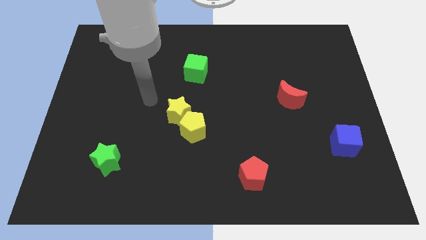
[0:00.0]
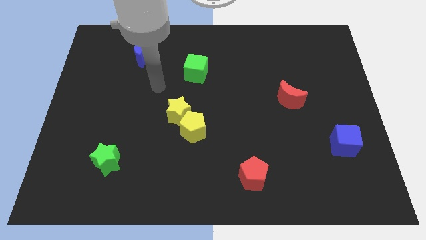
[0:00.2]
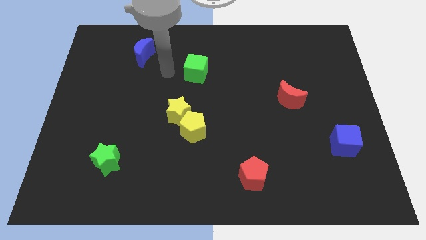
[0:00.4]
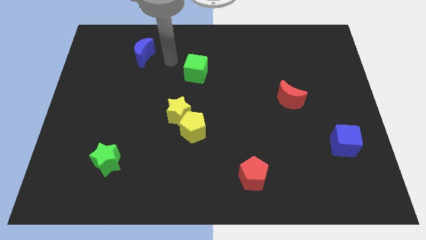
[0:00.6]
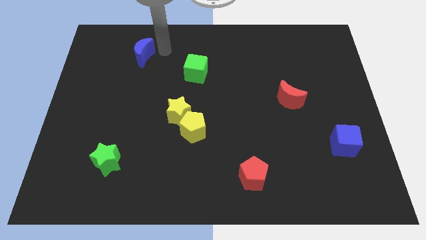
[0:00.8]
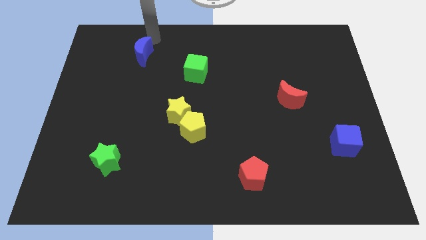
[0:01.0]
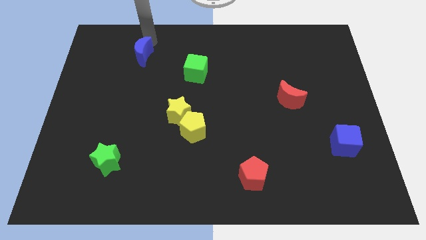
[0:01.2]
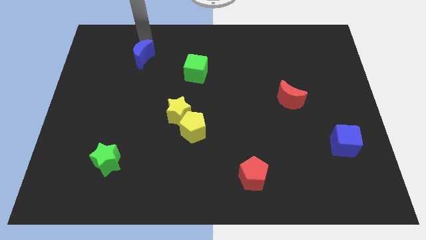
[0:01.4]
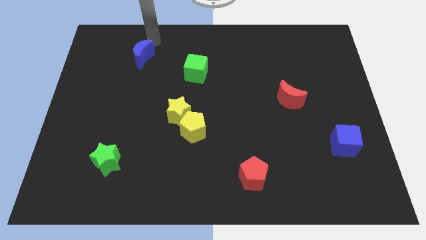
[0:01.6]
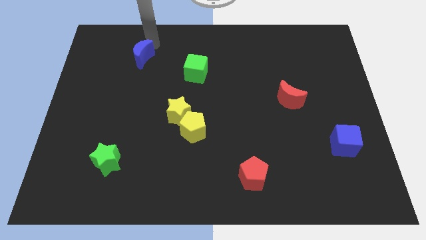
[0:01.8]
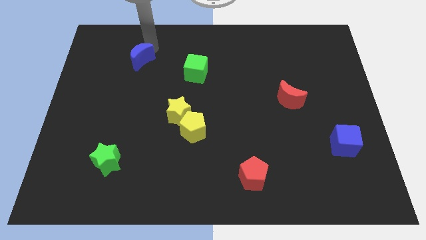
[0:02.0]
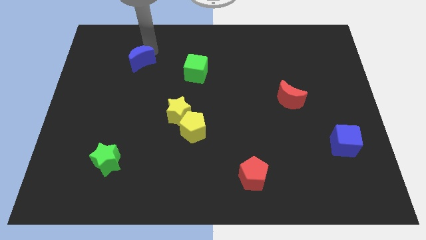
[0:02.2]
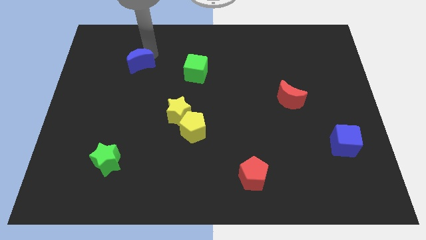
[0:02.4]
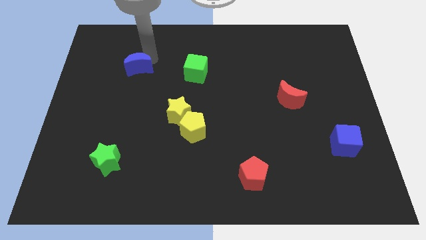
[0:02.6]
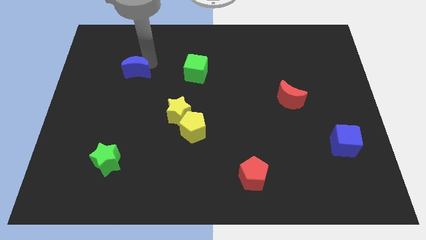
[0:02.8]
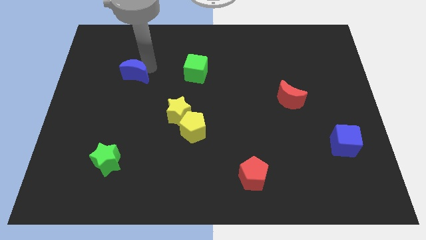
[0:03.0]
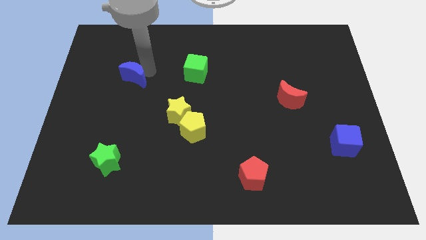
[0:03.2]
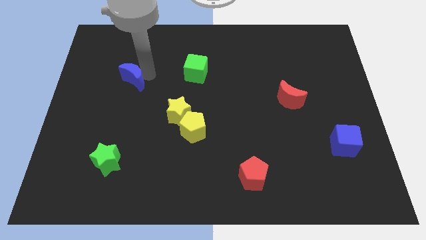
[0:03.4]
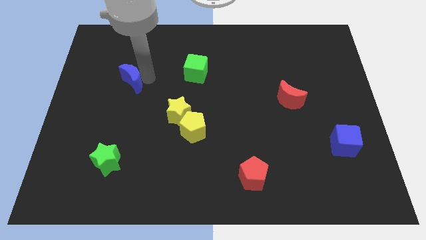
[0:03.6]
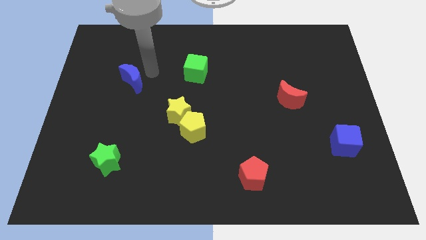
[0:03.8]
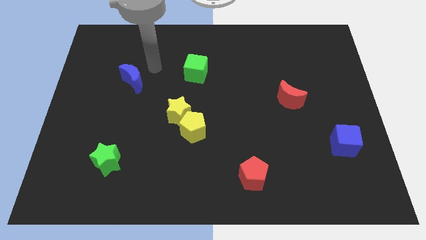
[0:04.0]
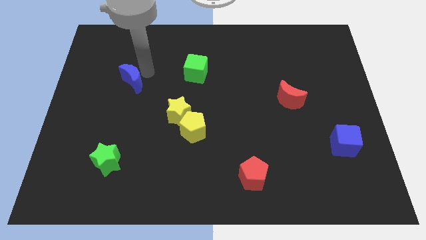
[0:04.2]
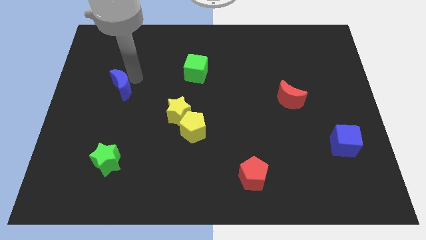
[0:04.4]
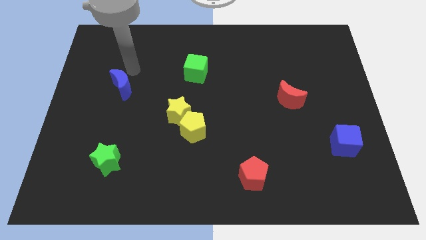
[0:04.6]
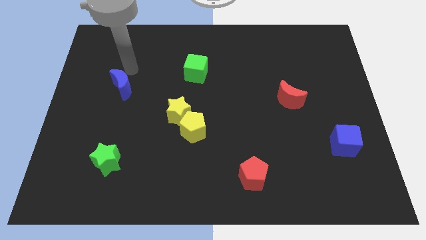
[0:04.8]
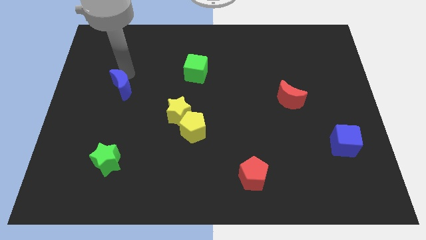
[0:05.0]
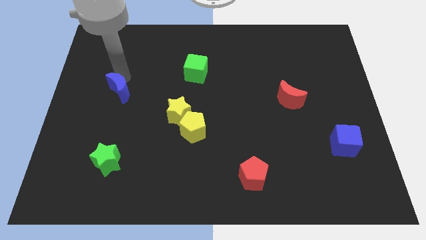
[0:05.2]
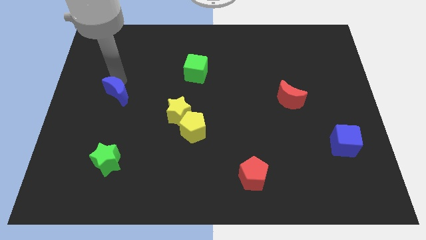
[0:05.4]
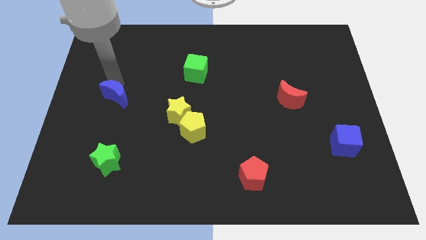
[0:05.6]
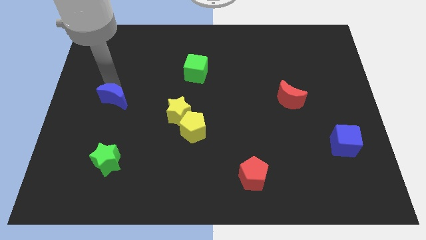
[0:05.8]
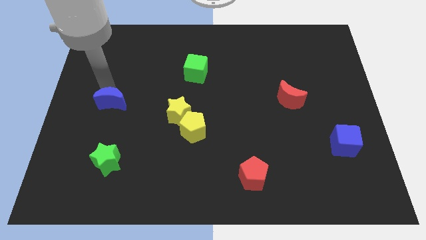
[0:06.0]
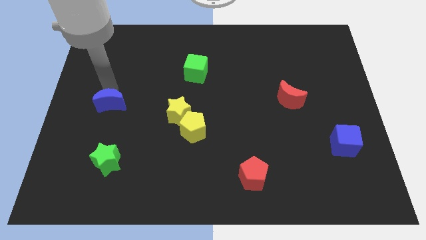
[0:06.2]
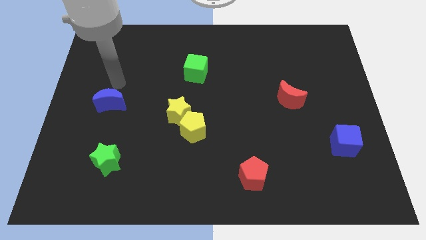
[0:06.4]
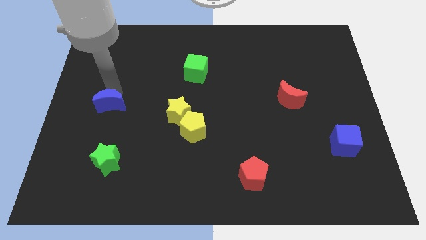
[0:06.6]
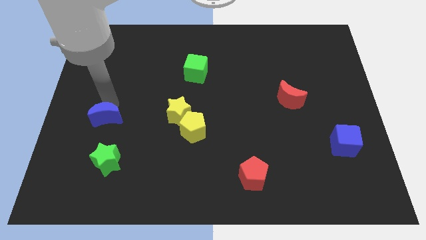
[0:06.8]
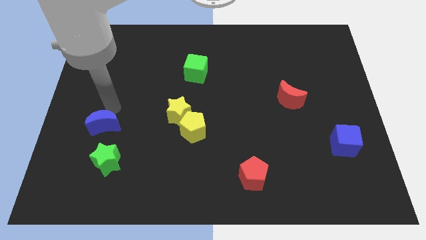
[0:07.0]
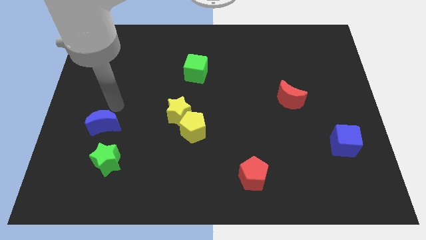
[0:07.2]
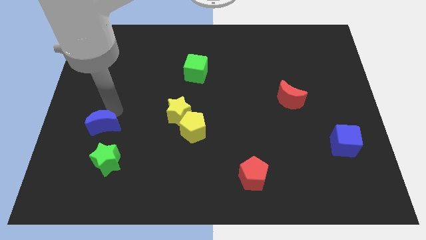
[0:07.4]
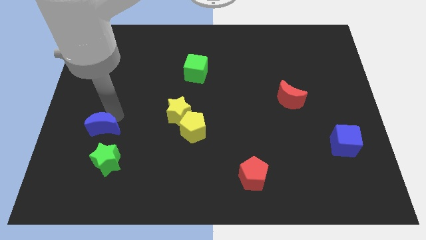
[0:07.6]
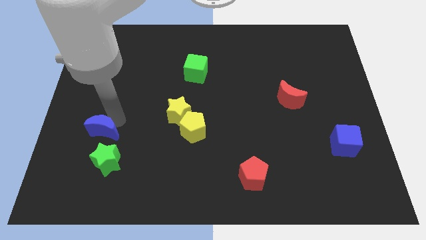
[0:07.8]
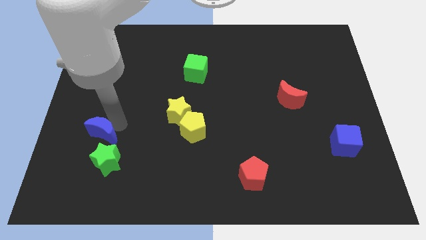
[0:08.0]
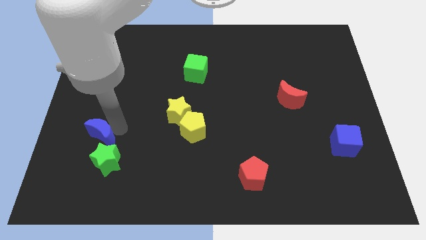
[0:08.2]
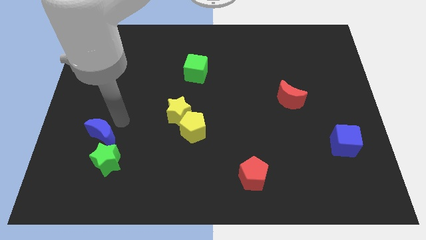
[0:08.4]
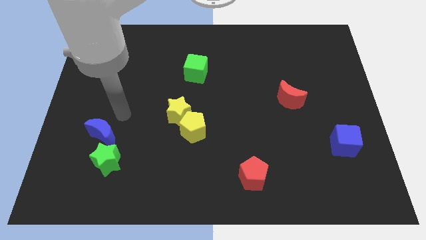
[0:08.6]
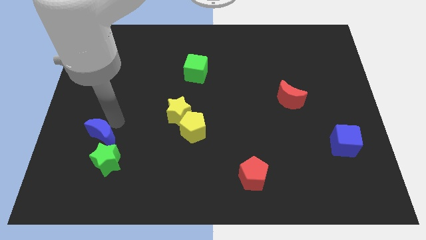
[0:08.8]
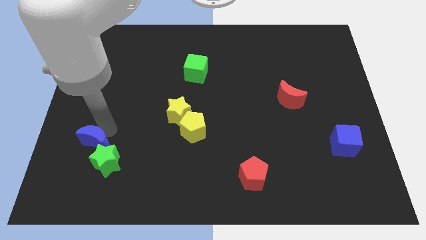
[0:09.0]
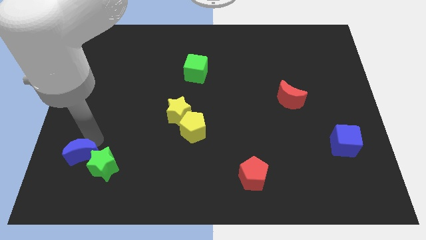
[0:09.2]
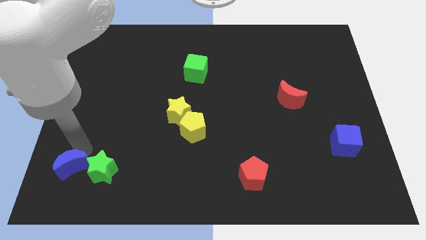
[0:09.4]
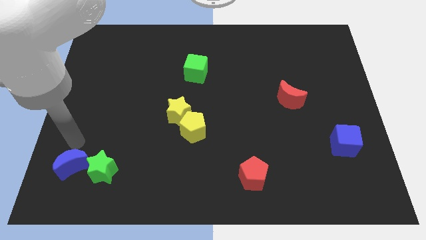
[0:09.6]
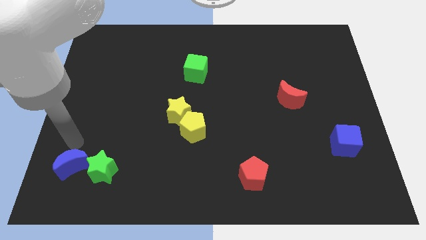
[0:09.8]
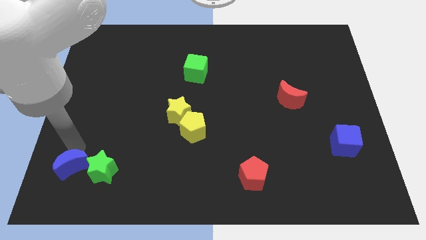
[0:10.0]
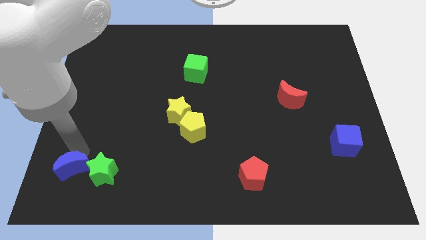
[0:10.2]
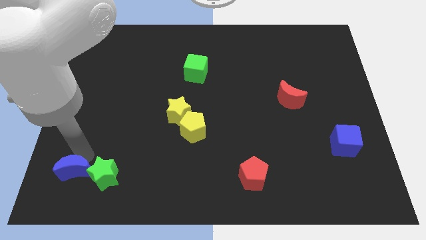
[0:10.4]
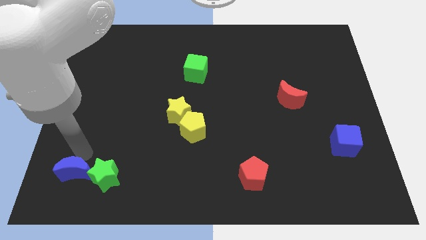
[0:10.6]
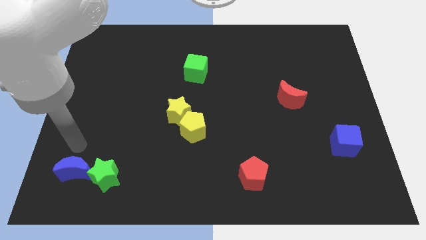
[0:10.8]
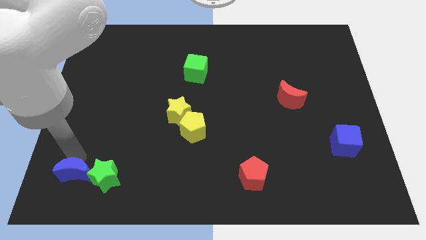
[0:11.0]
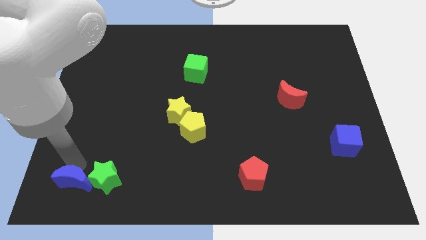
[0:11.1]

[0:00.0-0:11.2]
put the blue moon to the bottom left side of the green star

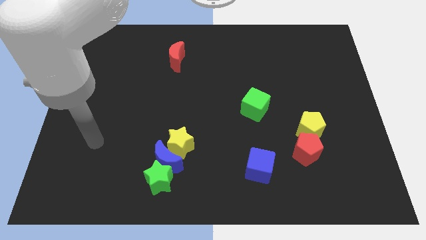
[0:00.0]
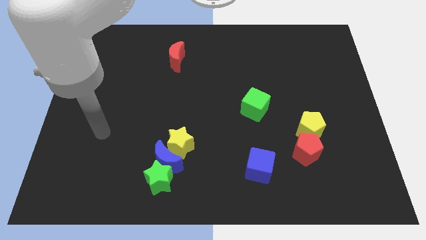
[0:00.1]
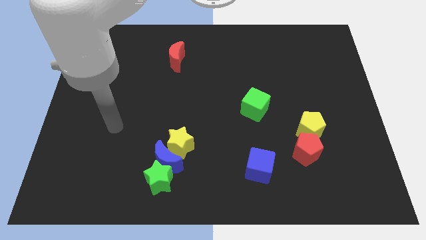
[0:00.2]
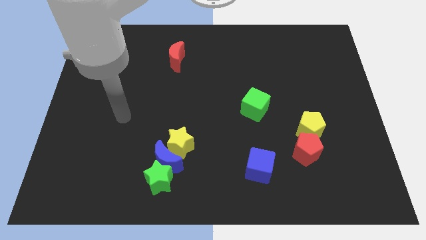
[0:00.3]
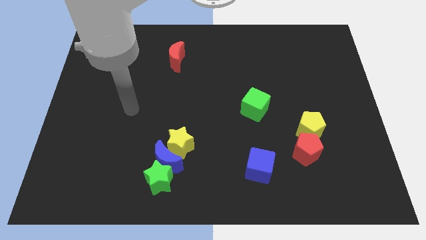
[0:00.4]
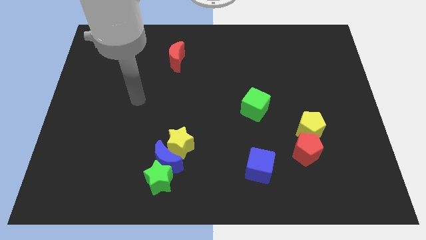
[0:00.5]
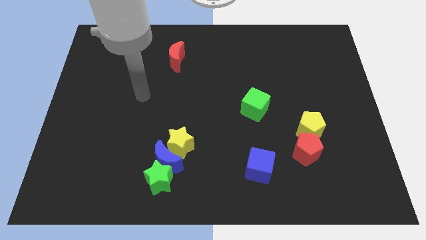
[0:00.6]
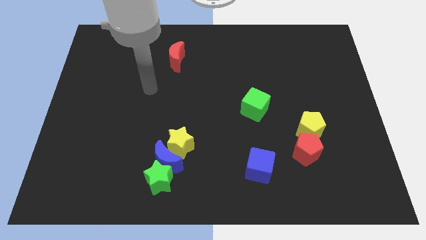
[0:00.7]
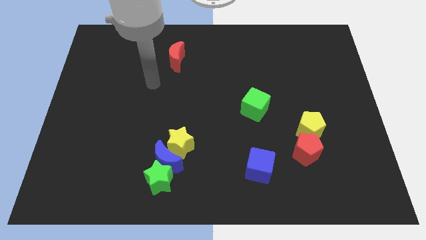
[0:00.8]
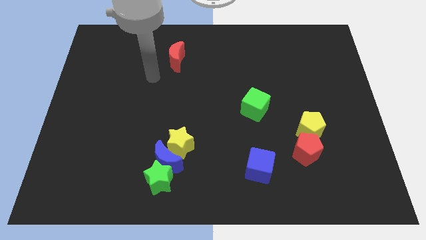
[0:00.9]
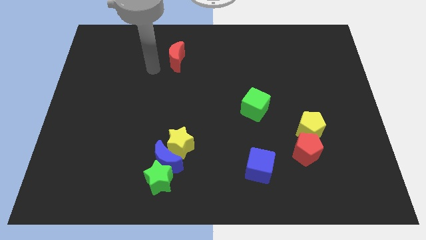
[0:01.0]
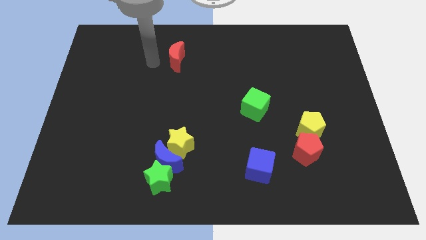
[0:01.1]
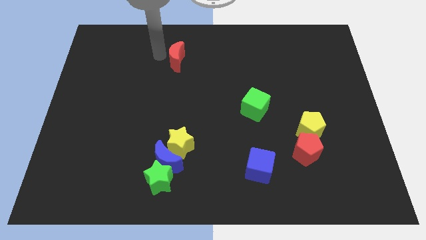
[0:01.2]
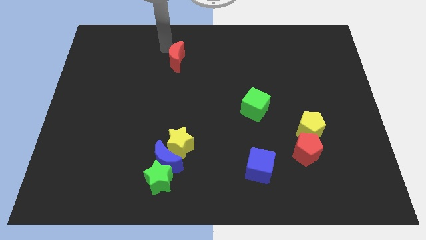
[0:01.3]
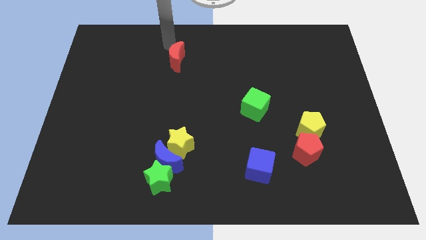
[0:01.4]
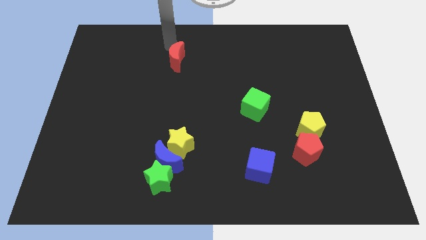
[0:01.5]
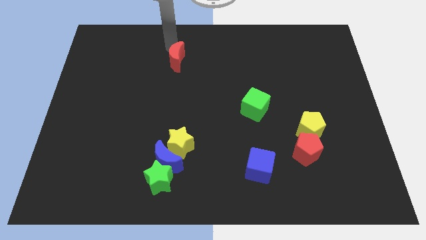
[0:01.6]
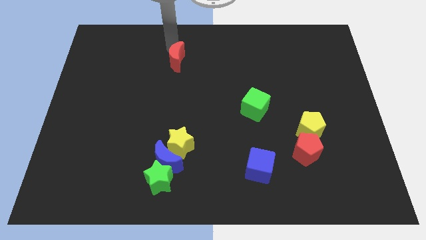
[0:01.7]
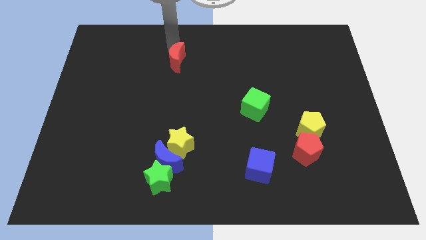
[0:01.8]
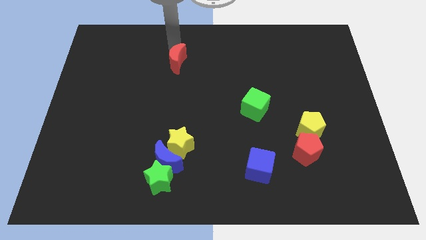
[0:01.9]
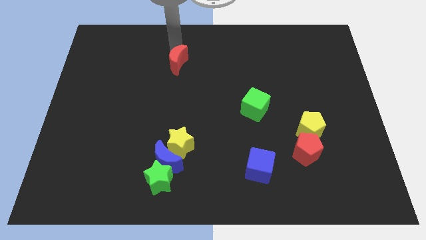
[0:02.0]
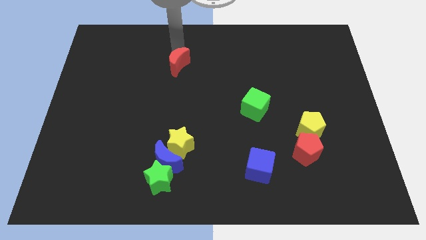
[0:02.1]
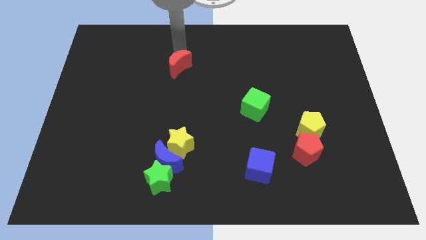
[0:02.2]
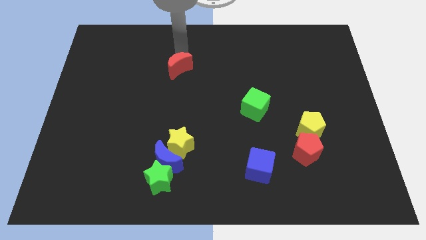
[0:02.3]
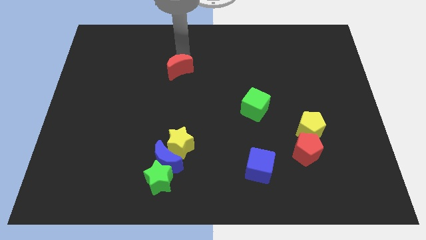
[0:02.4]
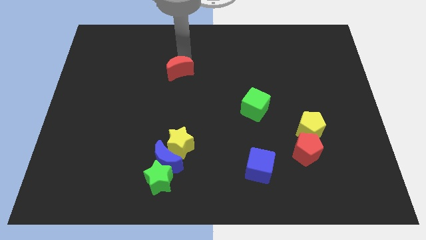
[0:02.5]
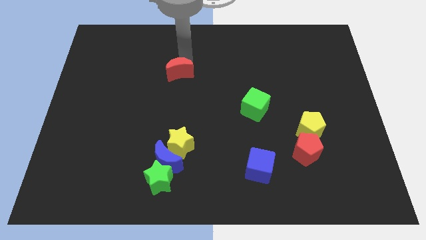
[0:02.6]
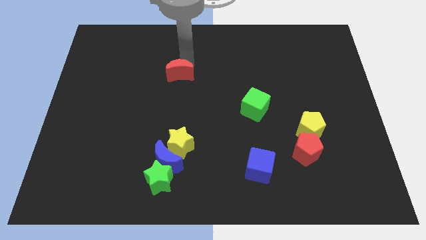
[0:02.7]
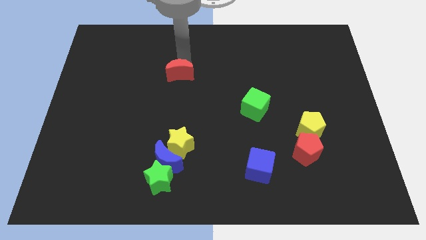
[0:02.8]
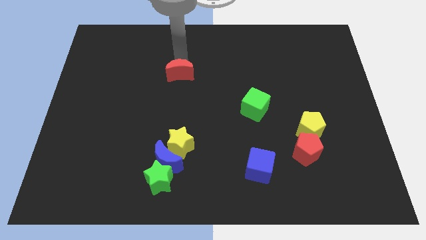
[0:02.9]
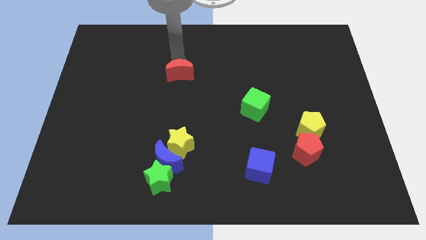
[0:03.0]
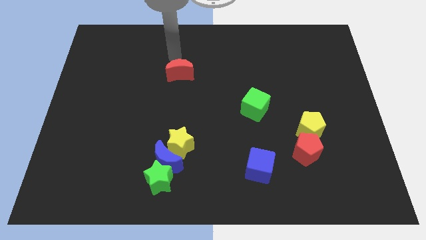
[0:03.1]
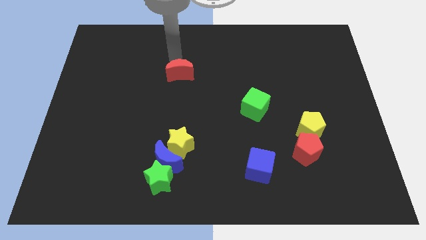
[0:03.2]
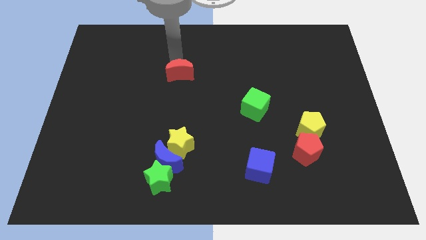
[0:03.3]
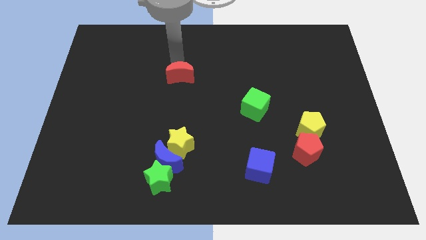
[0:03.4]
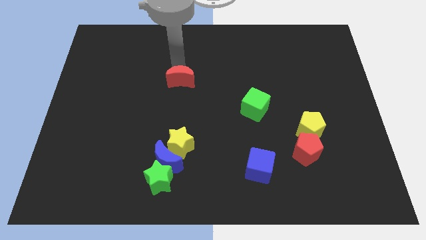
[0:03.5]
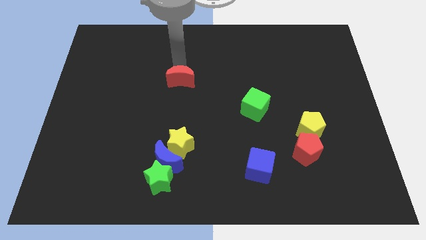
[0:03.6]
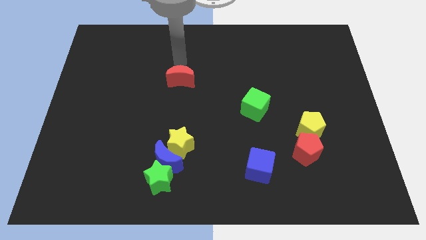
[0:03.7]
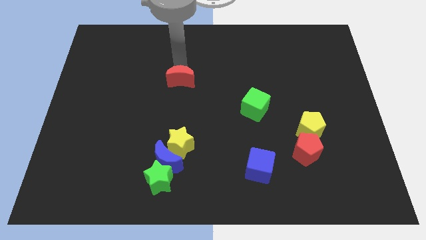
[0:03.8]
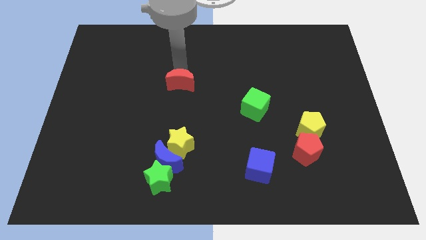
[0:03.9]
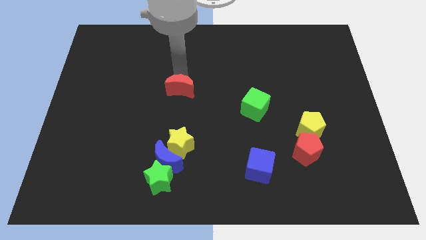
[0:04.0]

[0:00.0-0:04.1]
push the red moon to the top side of the yellow star
